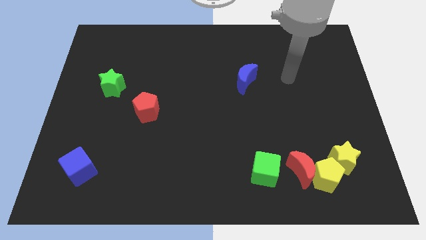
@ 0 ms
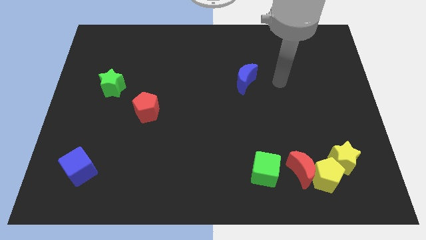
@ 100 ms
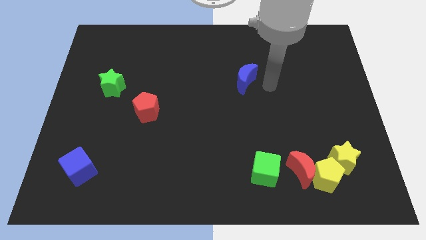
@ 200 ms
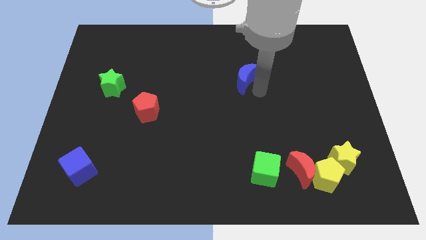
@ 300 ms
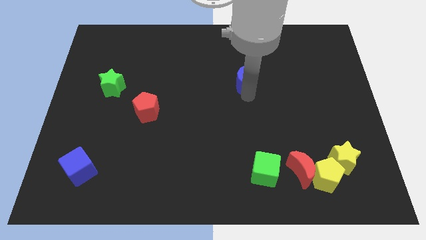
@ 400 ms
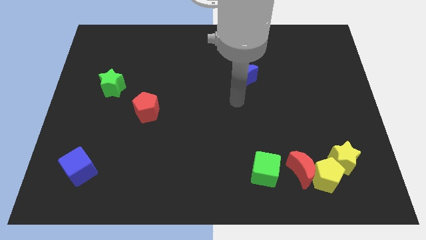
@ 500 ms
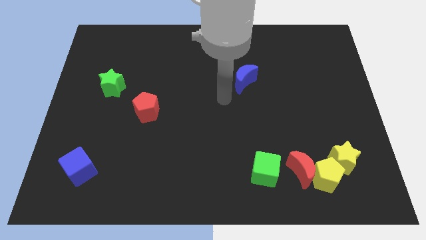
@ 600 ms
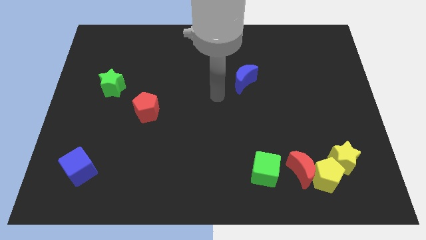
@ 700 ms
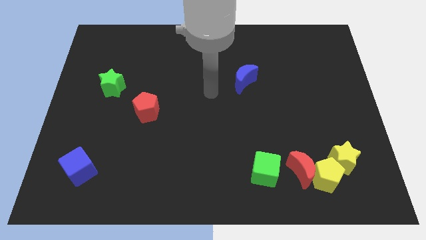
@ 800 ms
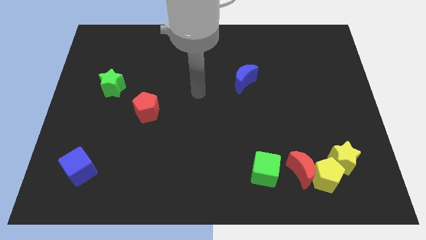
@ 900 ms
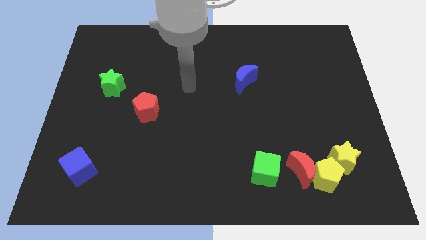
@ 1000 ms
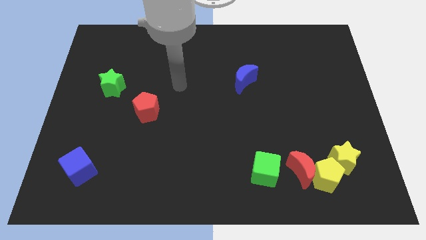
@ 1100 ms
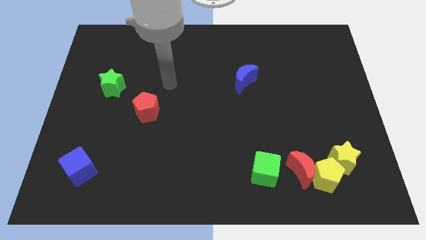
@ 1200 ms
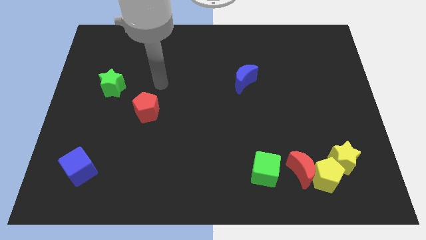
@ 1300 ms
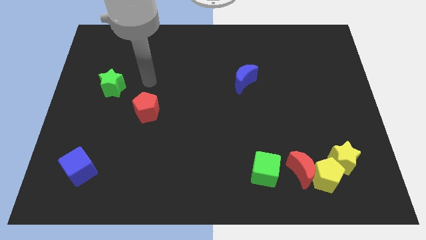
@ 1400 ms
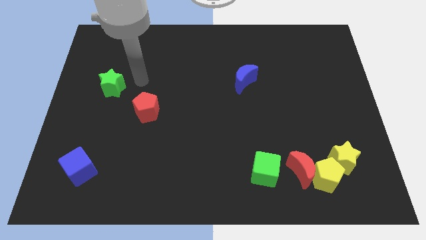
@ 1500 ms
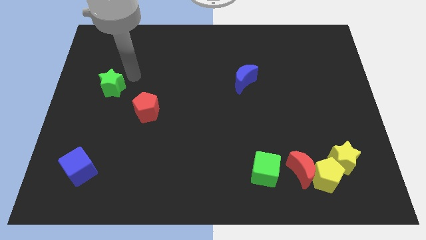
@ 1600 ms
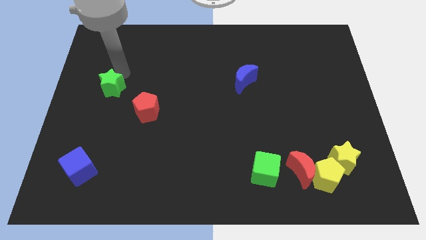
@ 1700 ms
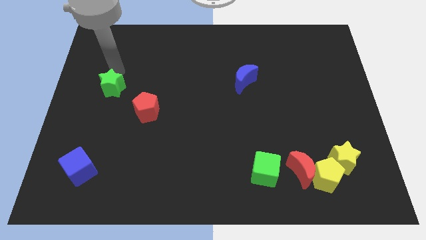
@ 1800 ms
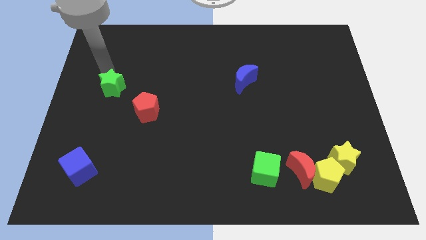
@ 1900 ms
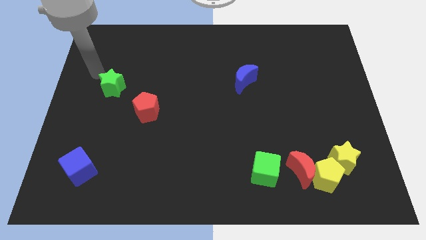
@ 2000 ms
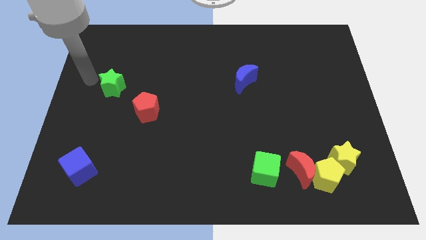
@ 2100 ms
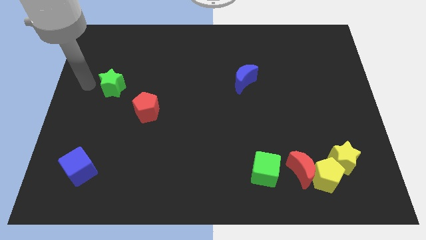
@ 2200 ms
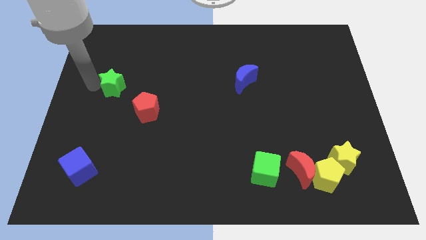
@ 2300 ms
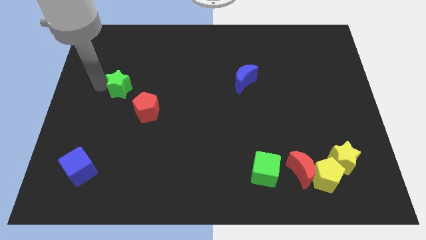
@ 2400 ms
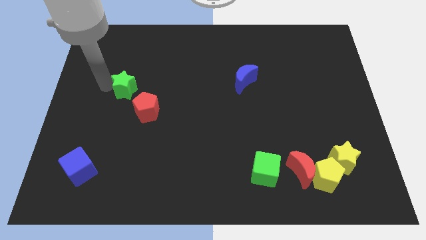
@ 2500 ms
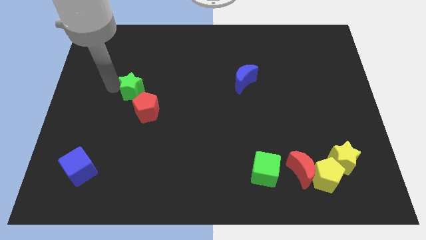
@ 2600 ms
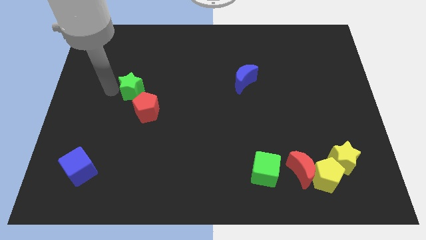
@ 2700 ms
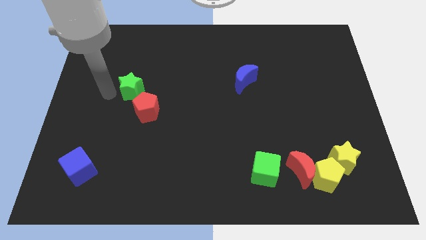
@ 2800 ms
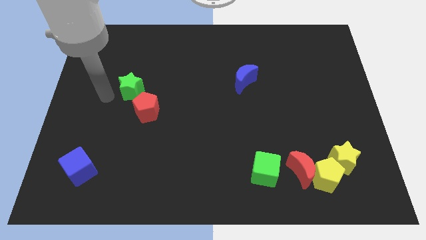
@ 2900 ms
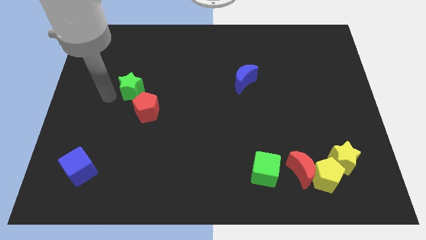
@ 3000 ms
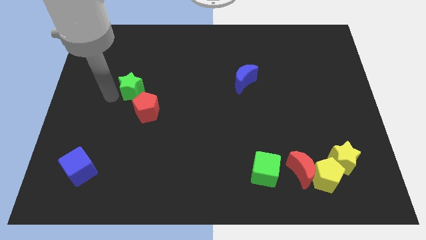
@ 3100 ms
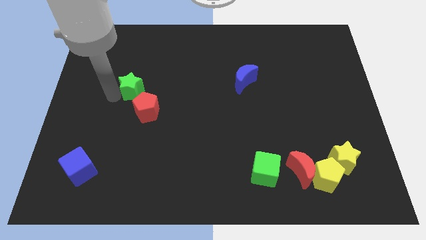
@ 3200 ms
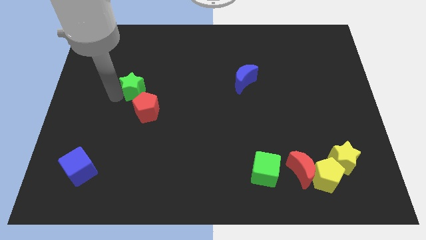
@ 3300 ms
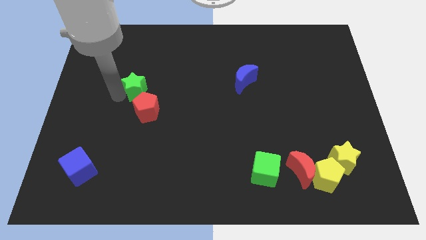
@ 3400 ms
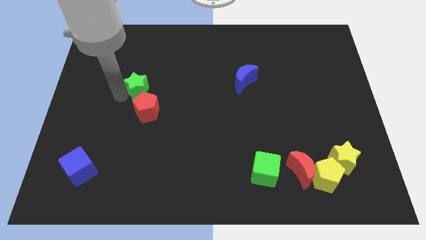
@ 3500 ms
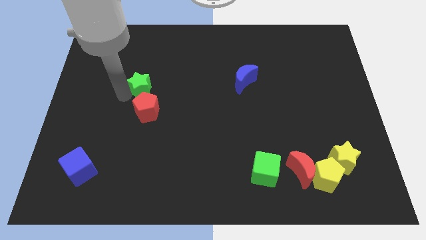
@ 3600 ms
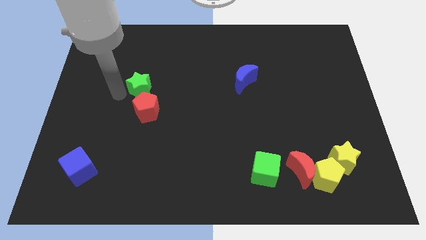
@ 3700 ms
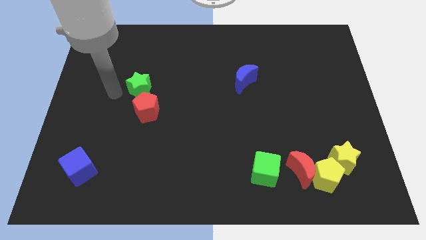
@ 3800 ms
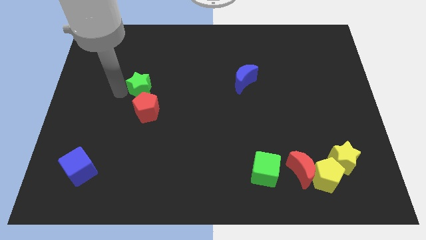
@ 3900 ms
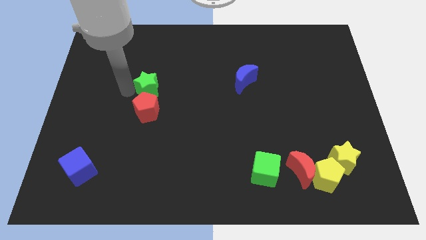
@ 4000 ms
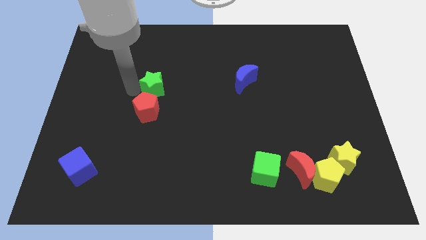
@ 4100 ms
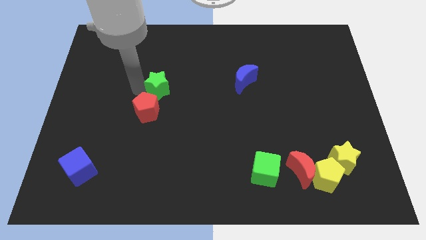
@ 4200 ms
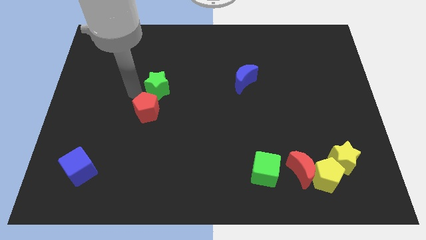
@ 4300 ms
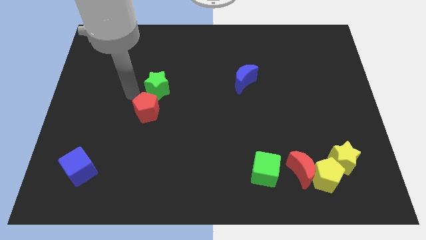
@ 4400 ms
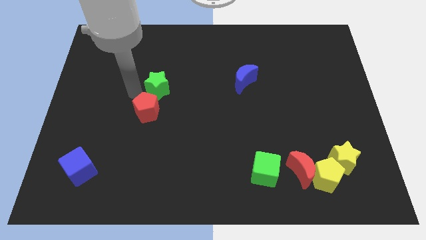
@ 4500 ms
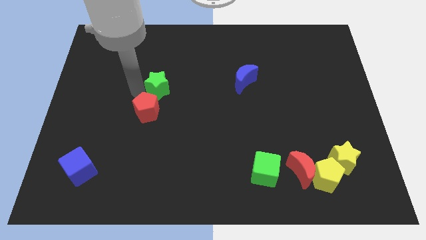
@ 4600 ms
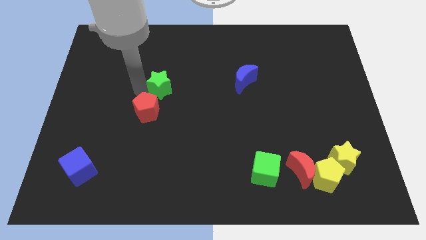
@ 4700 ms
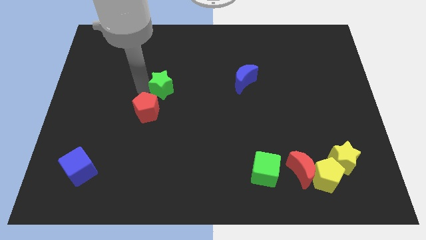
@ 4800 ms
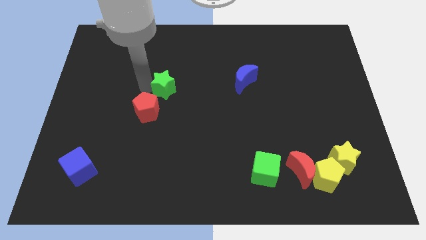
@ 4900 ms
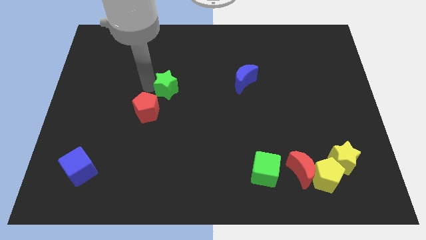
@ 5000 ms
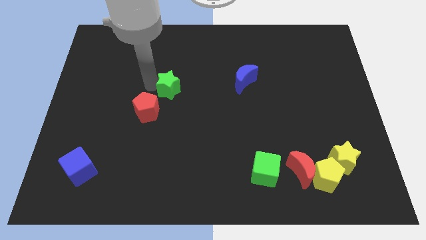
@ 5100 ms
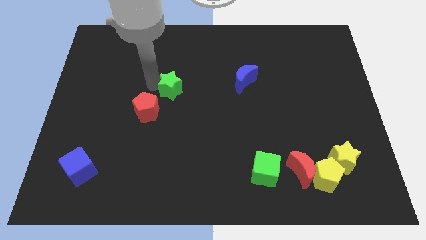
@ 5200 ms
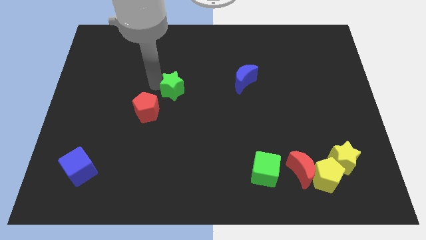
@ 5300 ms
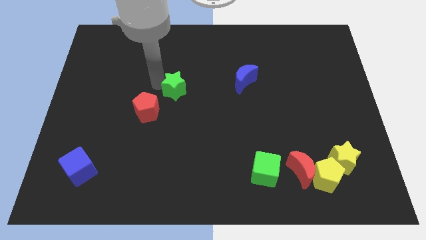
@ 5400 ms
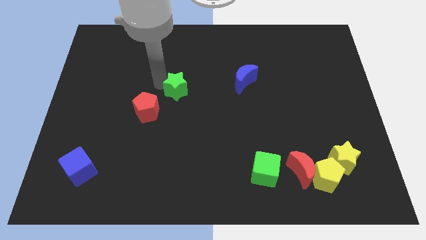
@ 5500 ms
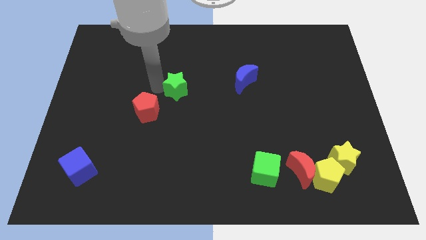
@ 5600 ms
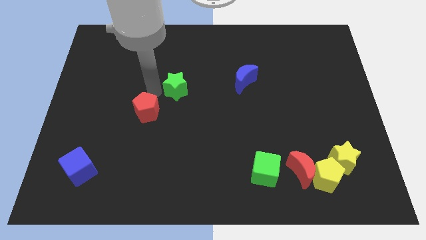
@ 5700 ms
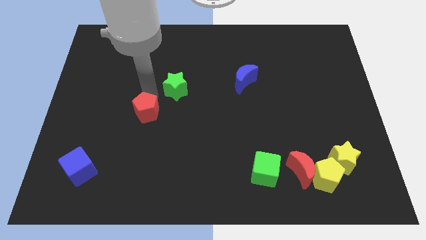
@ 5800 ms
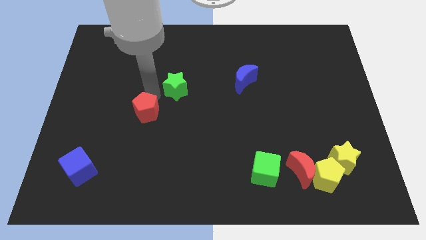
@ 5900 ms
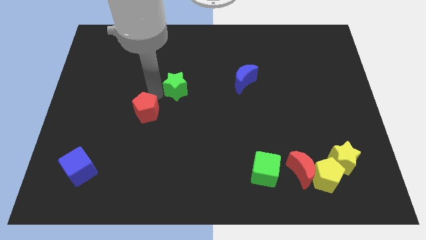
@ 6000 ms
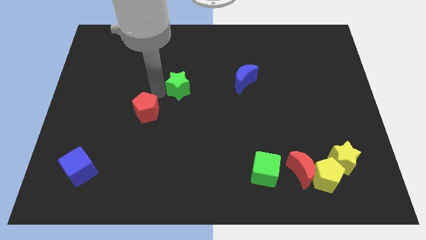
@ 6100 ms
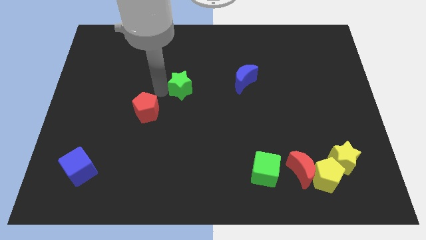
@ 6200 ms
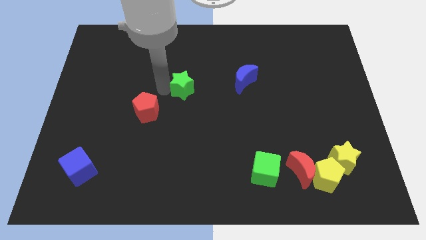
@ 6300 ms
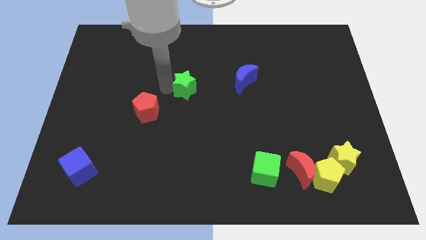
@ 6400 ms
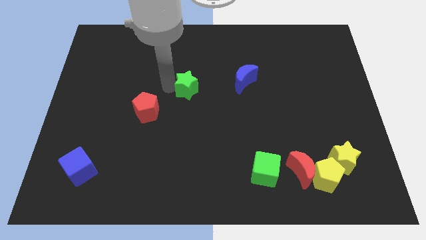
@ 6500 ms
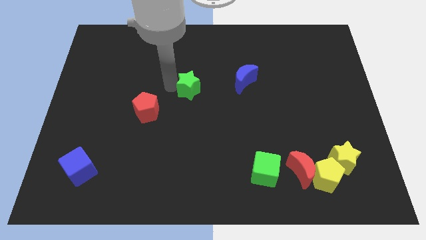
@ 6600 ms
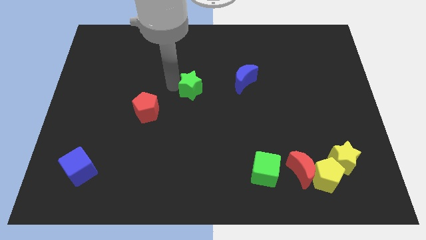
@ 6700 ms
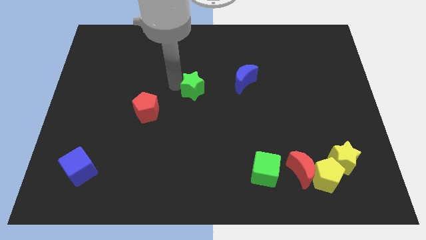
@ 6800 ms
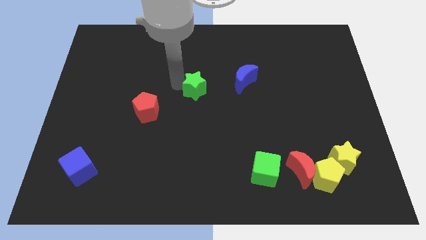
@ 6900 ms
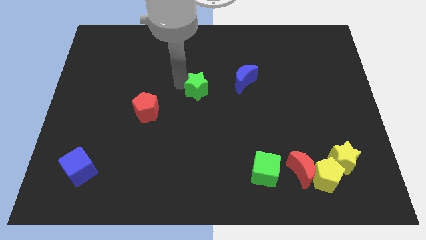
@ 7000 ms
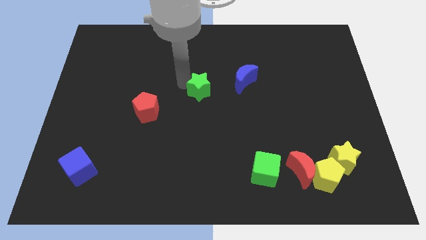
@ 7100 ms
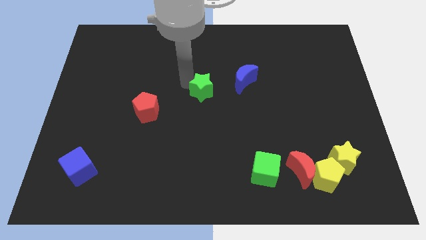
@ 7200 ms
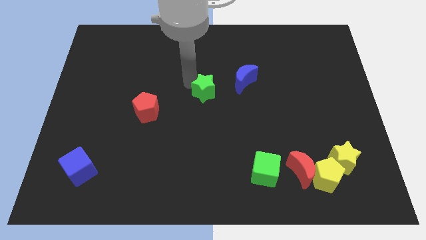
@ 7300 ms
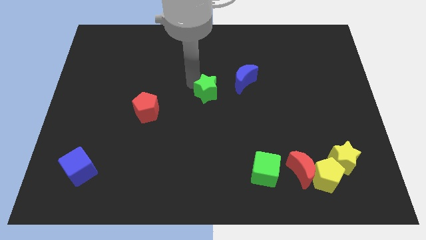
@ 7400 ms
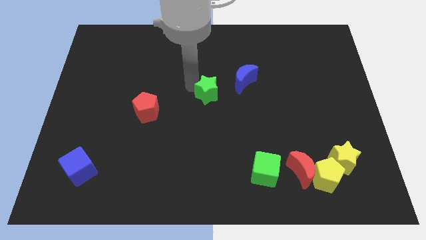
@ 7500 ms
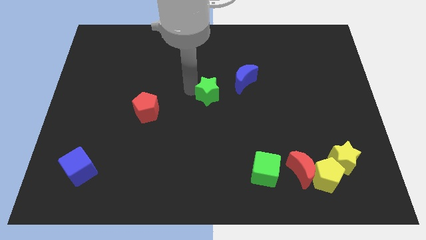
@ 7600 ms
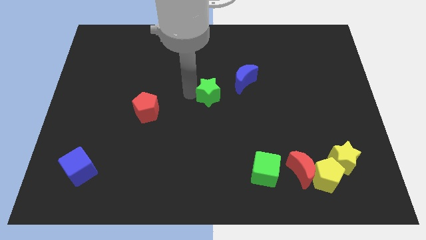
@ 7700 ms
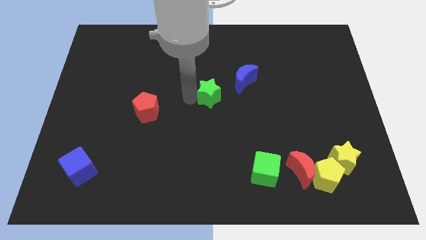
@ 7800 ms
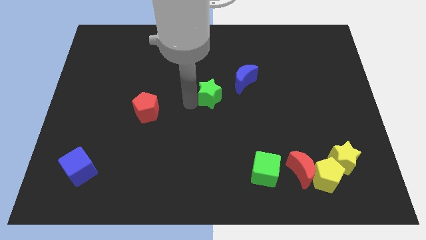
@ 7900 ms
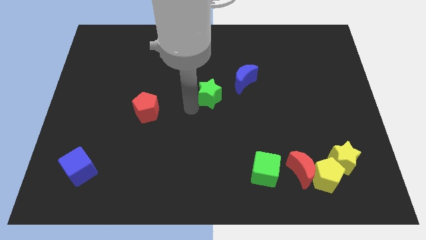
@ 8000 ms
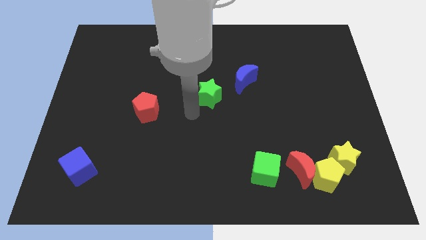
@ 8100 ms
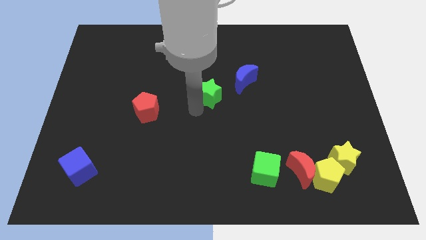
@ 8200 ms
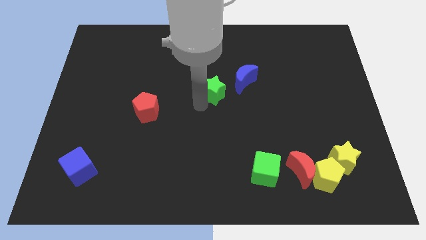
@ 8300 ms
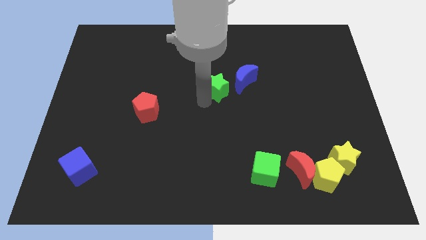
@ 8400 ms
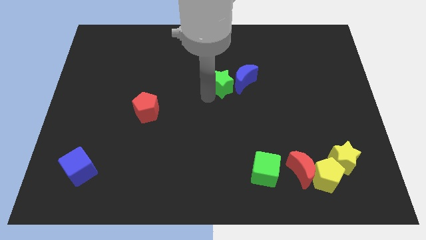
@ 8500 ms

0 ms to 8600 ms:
slide the green star next to the blue moon
